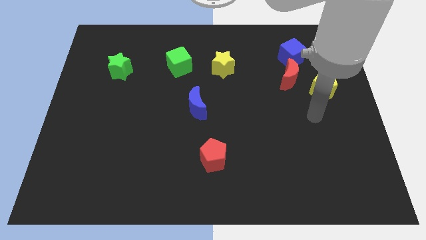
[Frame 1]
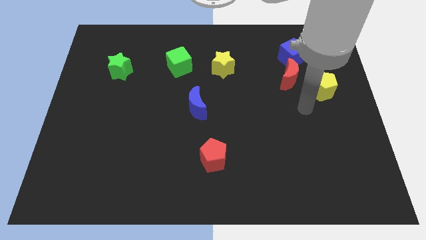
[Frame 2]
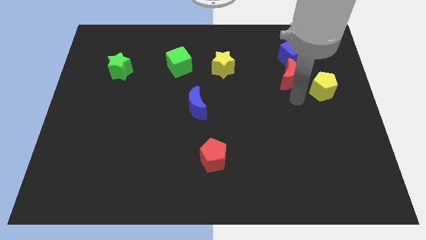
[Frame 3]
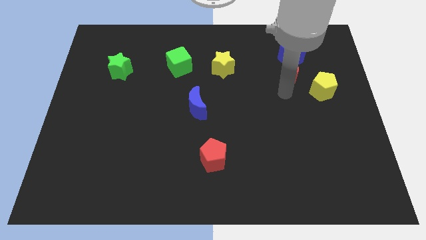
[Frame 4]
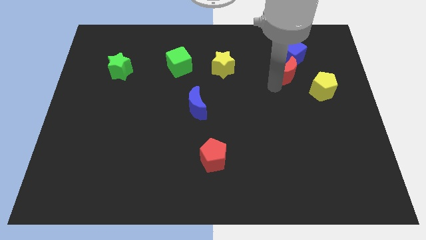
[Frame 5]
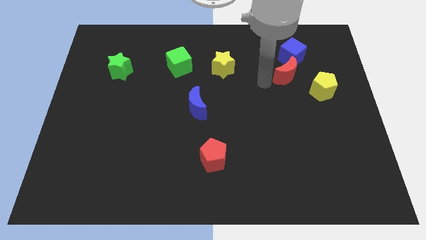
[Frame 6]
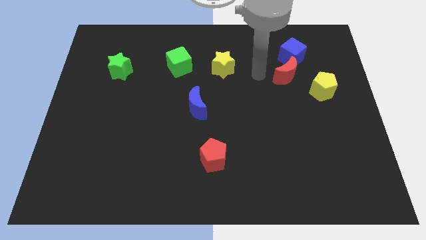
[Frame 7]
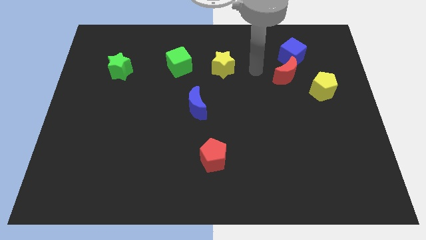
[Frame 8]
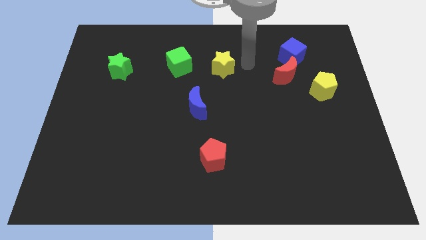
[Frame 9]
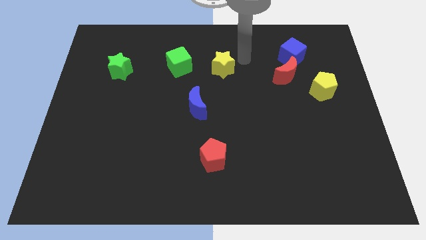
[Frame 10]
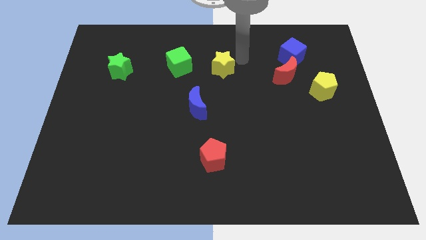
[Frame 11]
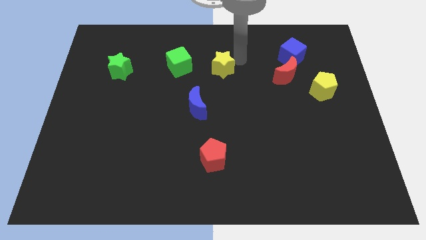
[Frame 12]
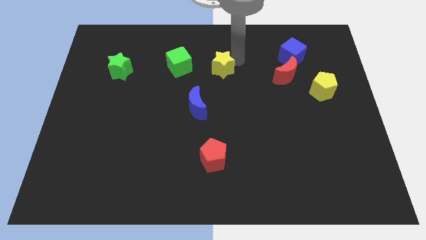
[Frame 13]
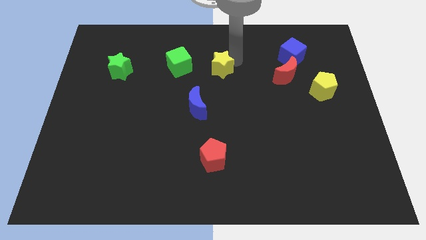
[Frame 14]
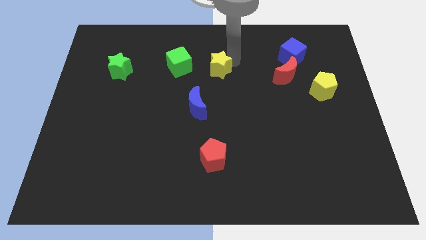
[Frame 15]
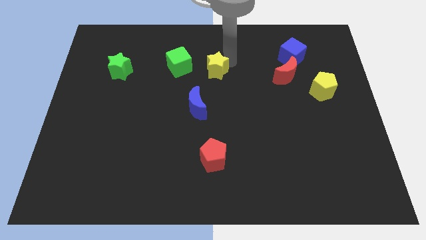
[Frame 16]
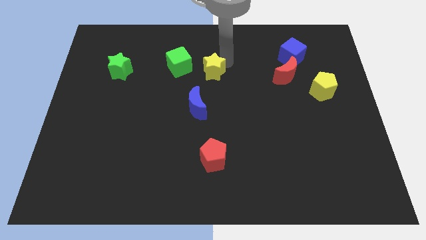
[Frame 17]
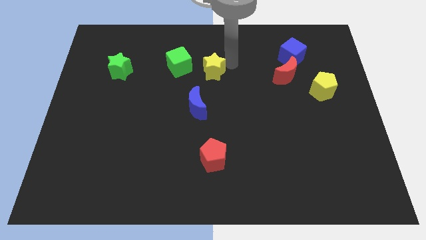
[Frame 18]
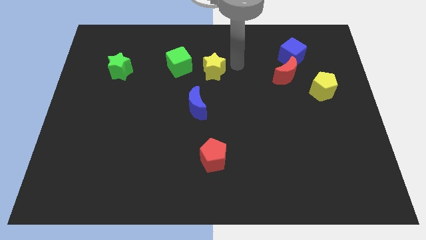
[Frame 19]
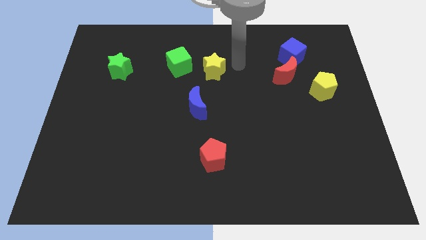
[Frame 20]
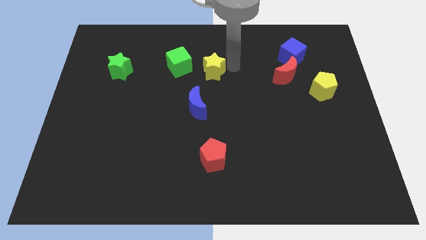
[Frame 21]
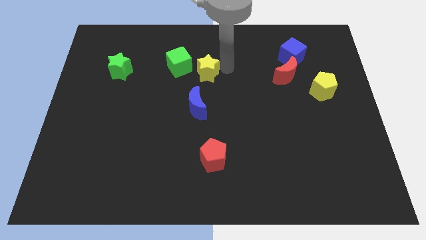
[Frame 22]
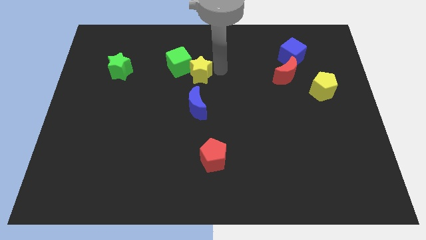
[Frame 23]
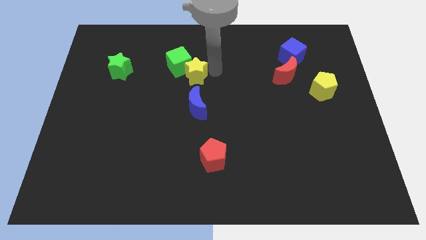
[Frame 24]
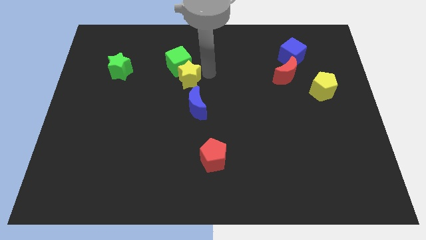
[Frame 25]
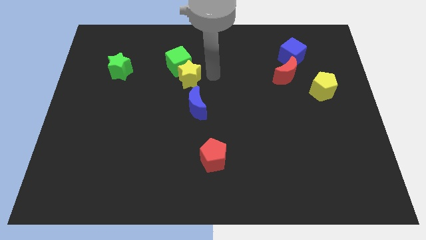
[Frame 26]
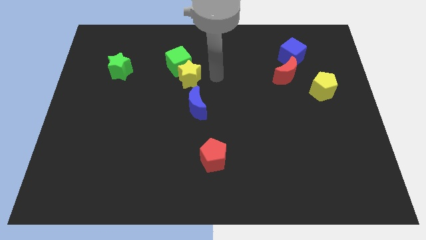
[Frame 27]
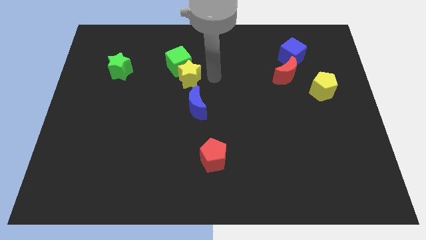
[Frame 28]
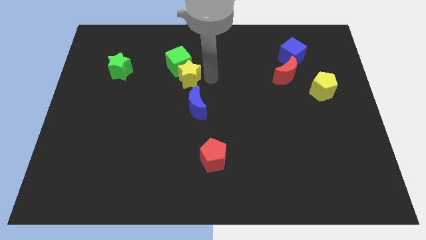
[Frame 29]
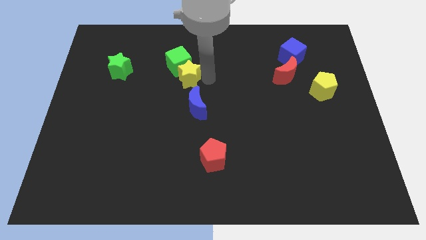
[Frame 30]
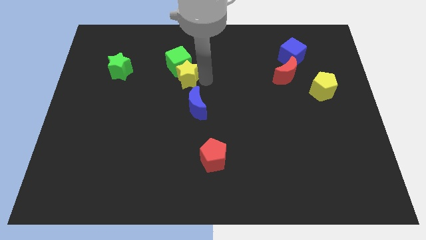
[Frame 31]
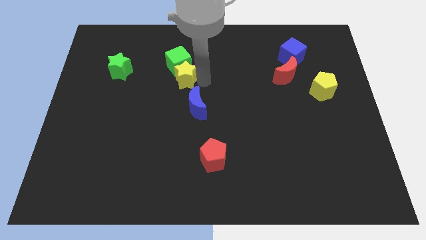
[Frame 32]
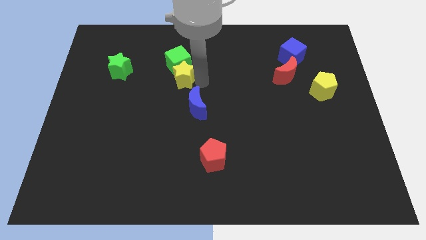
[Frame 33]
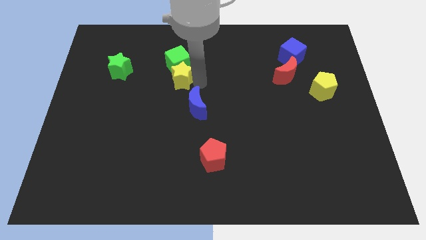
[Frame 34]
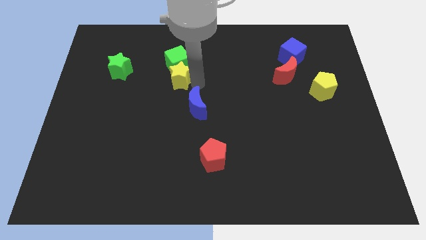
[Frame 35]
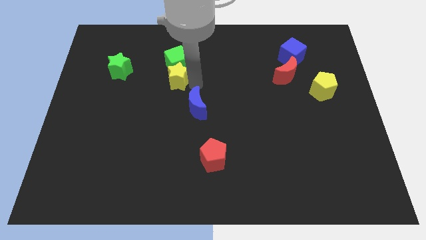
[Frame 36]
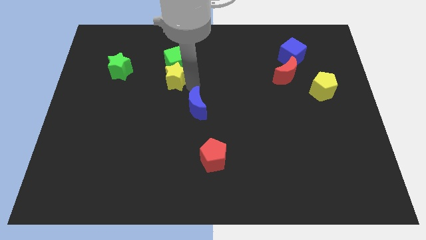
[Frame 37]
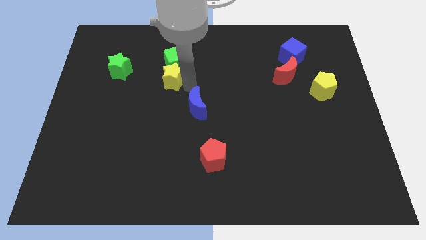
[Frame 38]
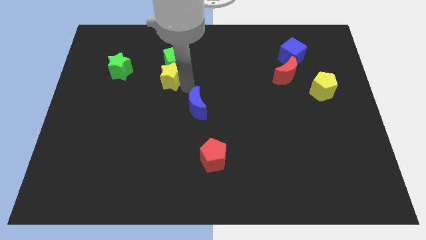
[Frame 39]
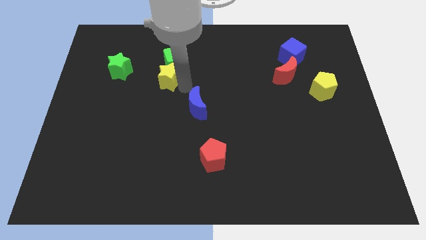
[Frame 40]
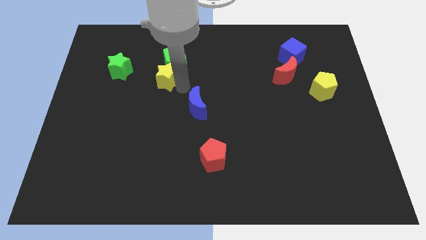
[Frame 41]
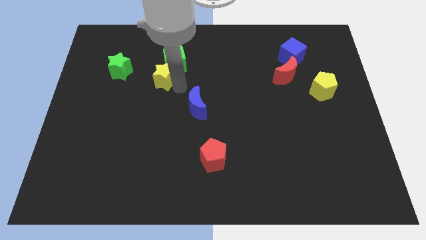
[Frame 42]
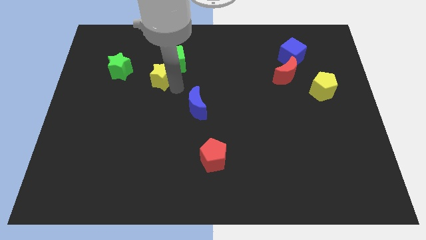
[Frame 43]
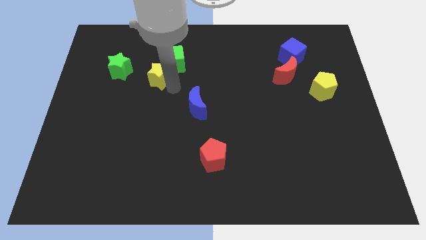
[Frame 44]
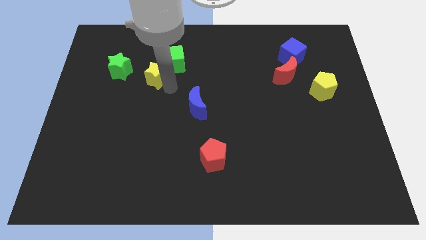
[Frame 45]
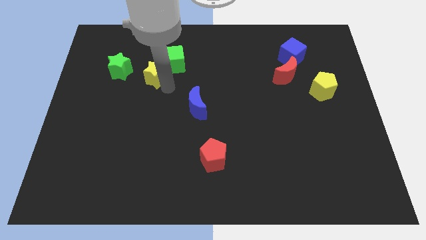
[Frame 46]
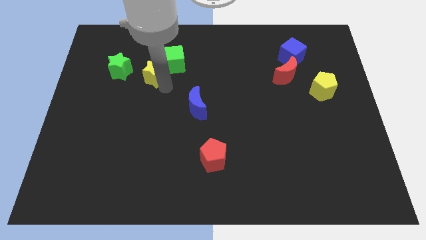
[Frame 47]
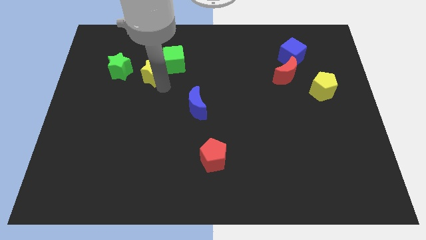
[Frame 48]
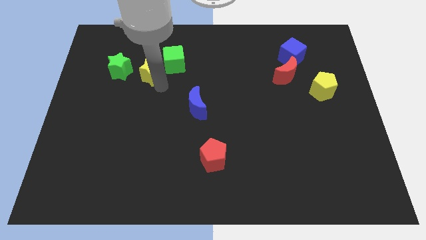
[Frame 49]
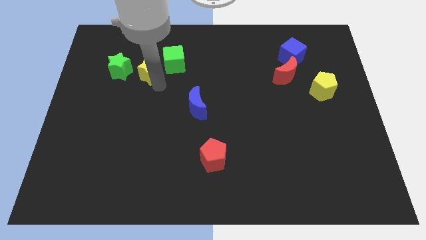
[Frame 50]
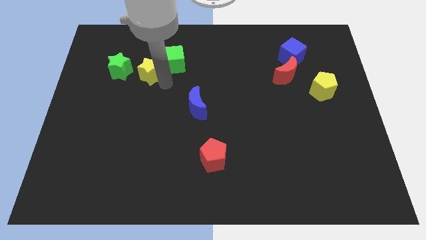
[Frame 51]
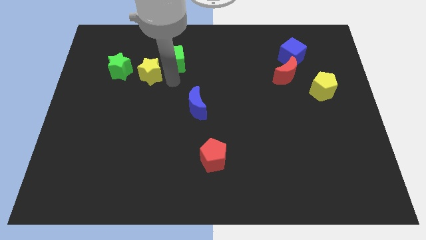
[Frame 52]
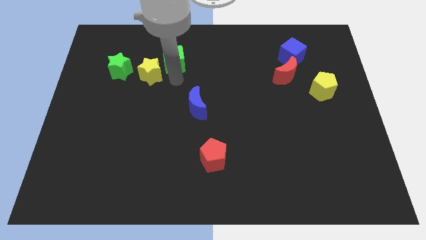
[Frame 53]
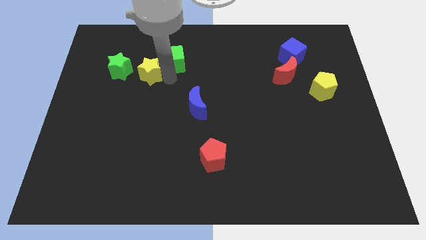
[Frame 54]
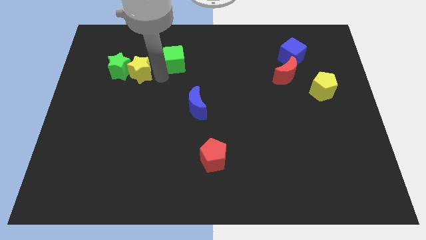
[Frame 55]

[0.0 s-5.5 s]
move the yellow star towards the green star

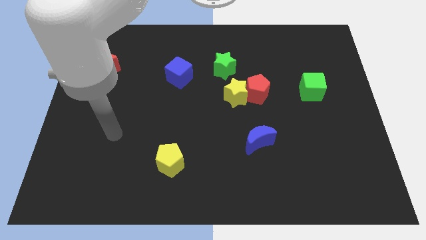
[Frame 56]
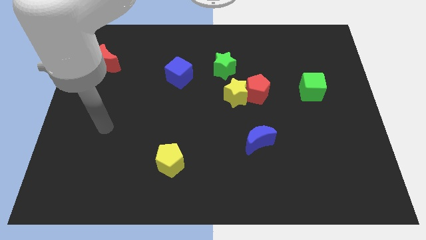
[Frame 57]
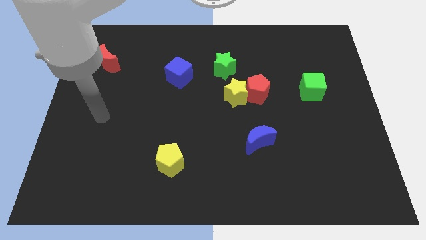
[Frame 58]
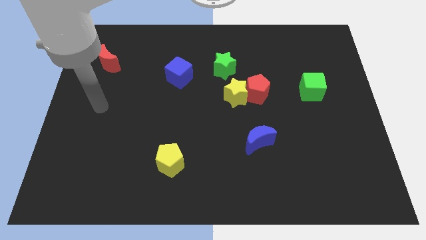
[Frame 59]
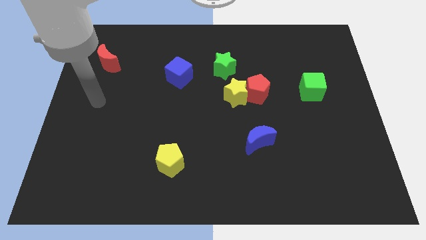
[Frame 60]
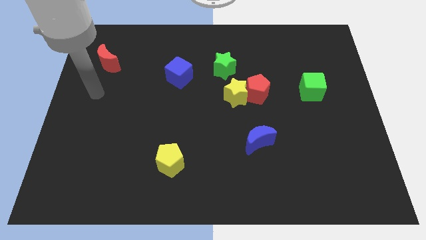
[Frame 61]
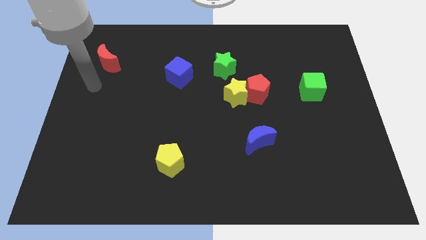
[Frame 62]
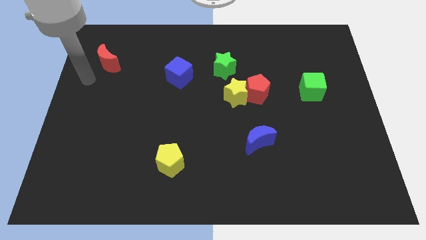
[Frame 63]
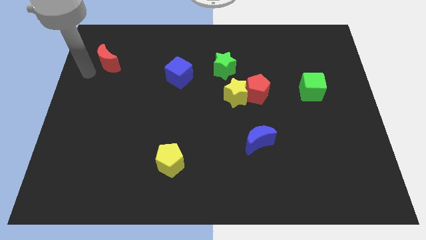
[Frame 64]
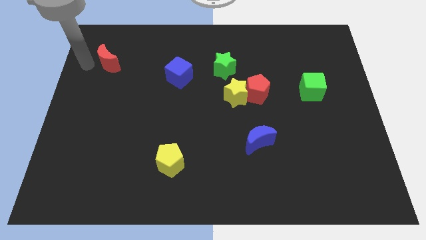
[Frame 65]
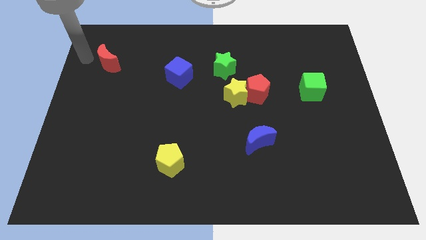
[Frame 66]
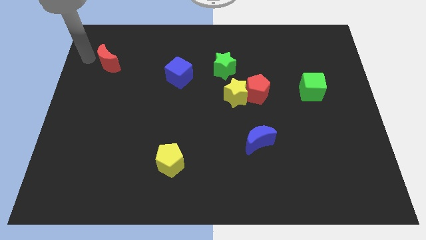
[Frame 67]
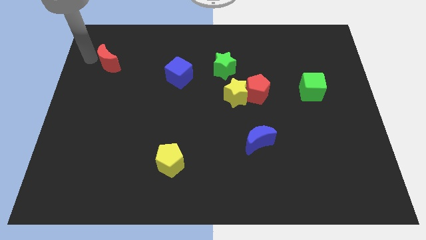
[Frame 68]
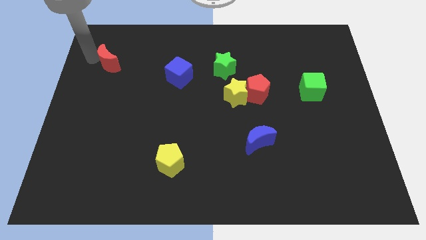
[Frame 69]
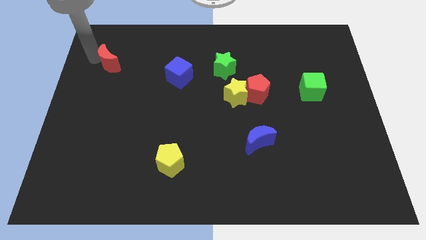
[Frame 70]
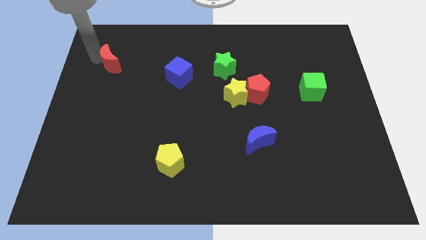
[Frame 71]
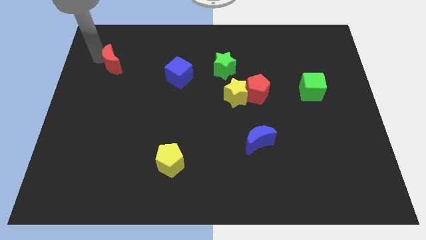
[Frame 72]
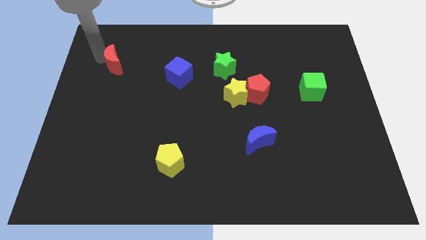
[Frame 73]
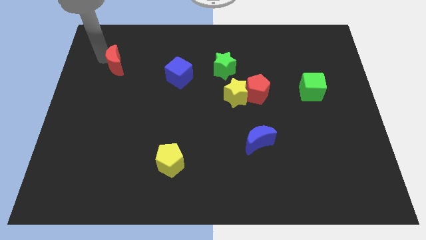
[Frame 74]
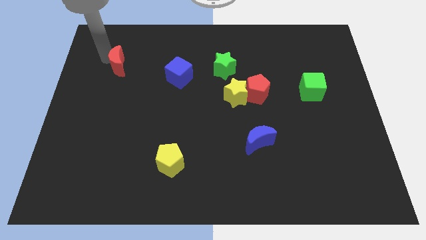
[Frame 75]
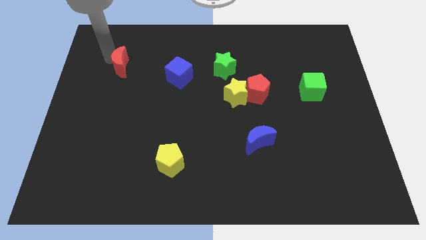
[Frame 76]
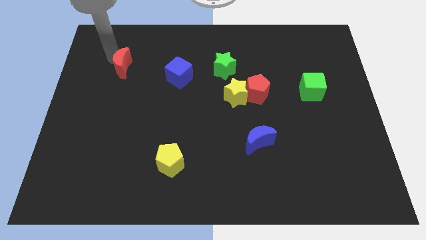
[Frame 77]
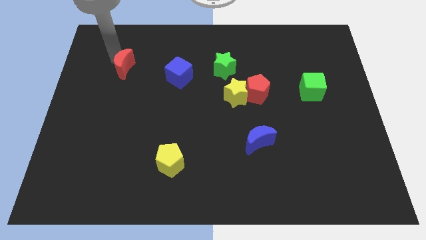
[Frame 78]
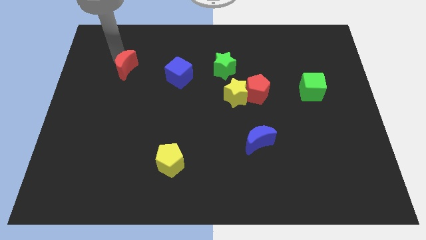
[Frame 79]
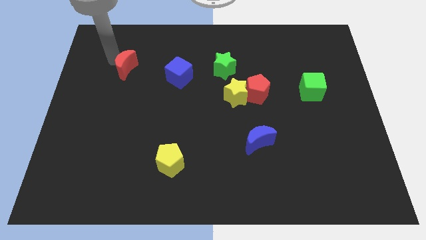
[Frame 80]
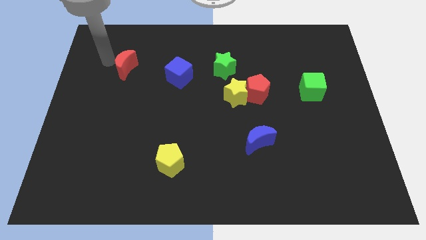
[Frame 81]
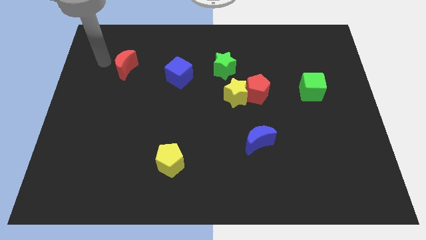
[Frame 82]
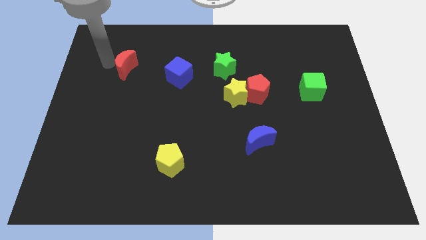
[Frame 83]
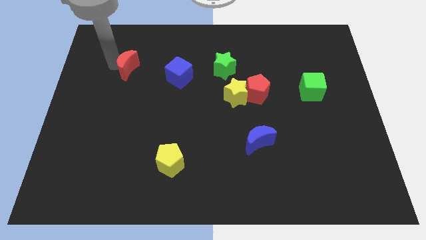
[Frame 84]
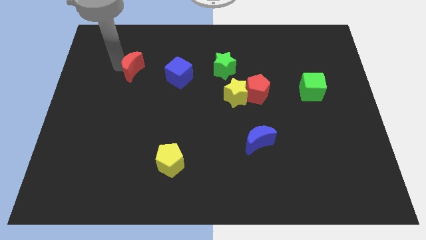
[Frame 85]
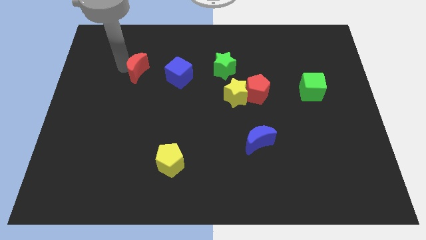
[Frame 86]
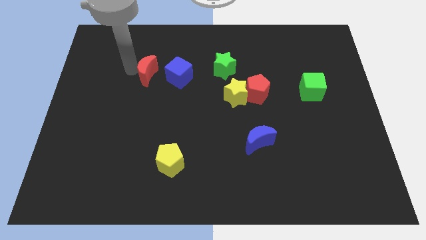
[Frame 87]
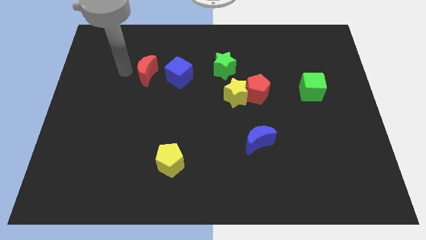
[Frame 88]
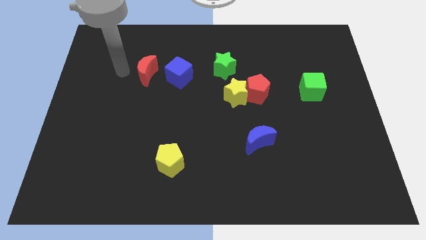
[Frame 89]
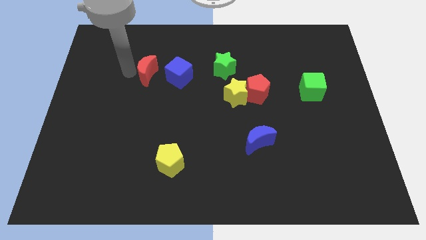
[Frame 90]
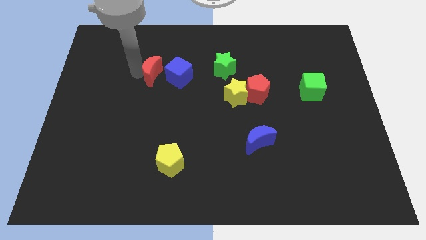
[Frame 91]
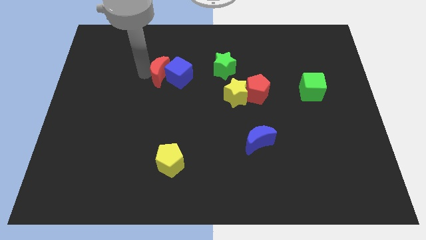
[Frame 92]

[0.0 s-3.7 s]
put the red moon close to the blue cube
